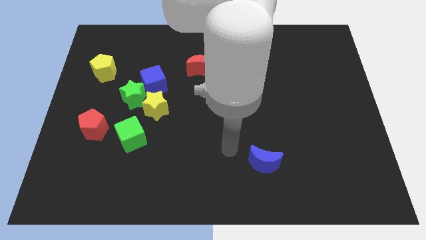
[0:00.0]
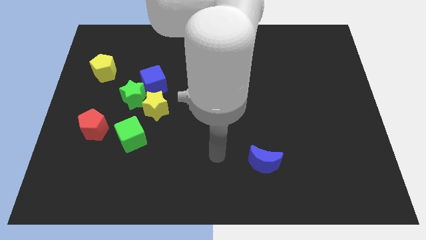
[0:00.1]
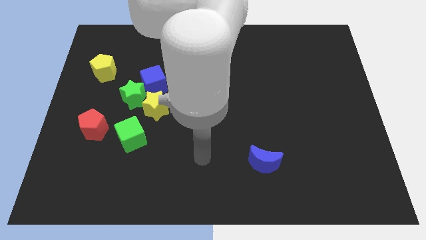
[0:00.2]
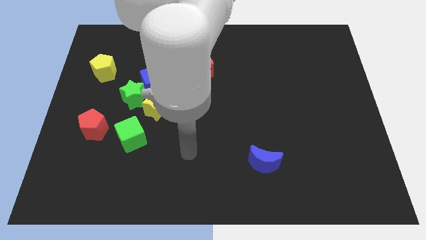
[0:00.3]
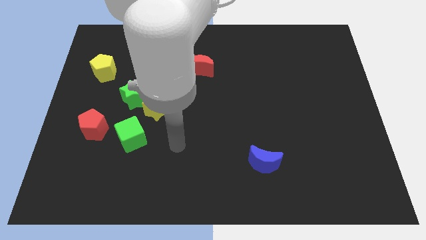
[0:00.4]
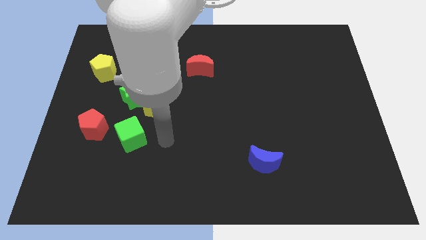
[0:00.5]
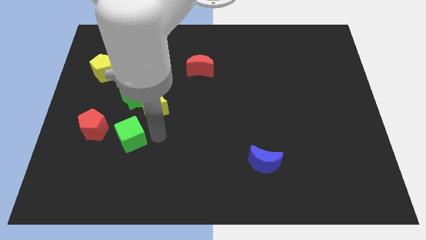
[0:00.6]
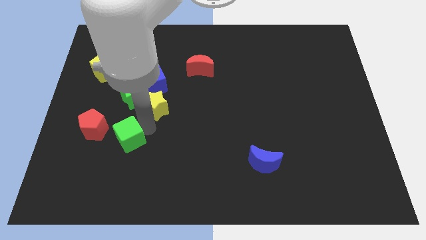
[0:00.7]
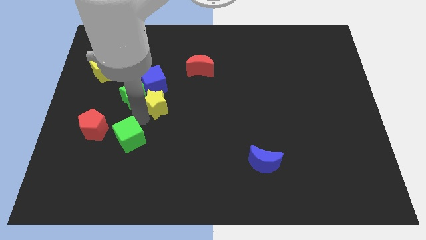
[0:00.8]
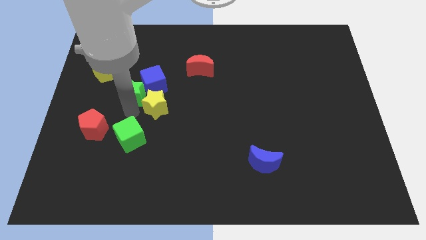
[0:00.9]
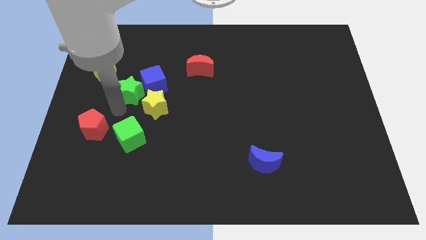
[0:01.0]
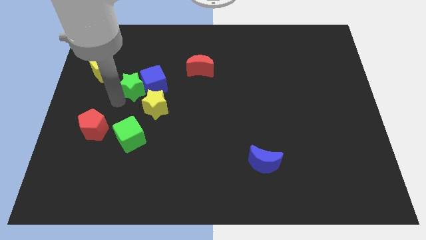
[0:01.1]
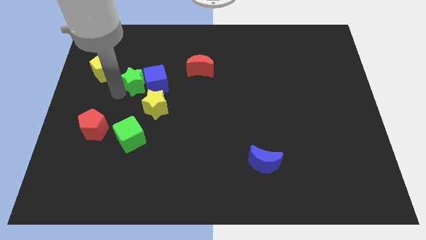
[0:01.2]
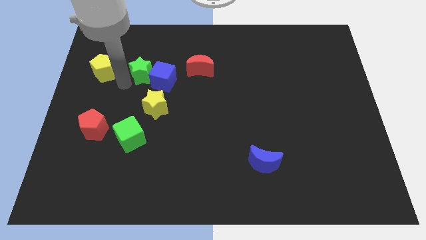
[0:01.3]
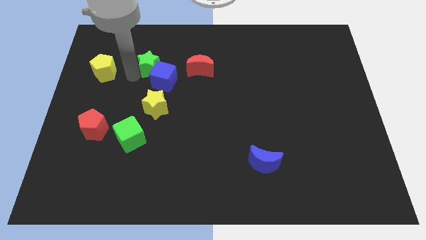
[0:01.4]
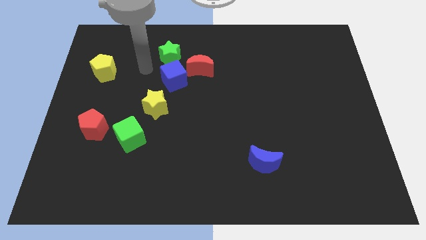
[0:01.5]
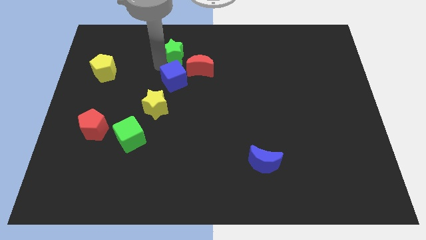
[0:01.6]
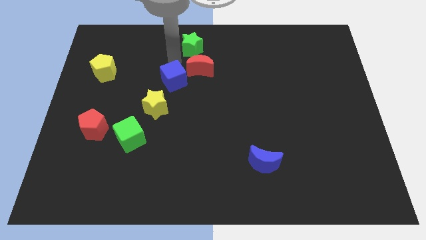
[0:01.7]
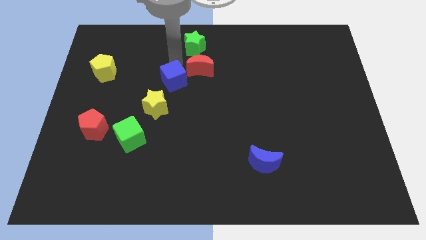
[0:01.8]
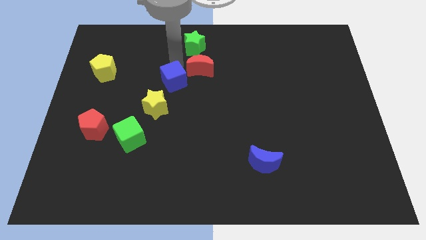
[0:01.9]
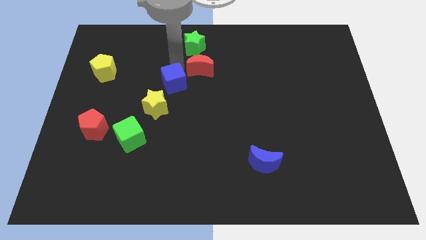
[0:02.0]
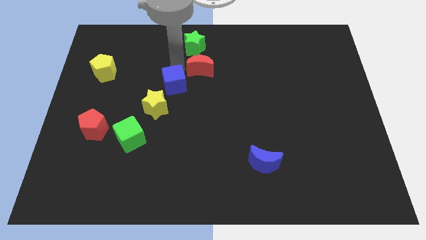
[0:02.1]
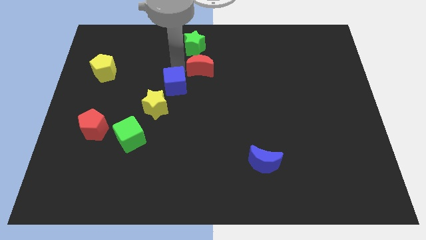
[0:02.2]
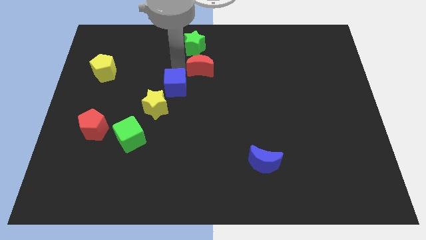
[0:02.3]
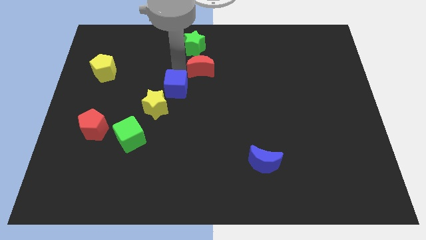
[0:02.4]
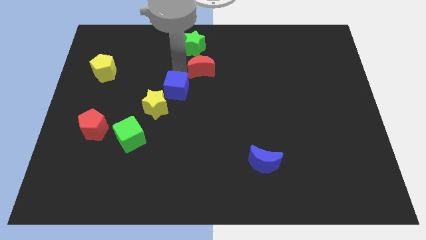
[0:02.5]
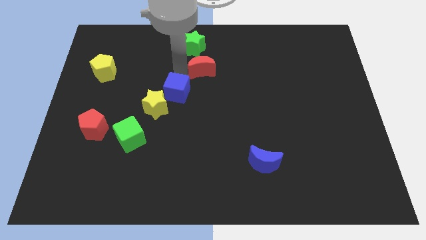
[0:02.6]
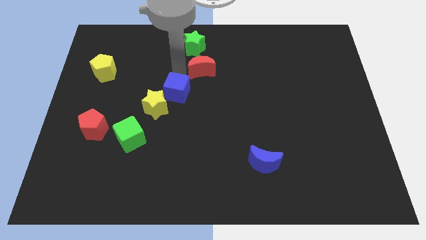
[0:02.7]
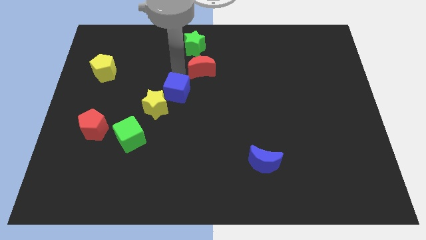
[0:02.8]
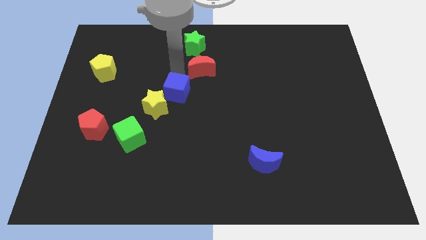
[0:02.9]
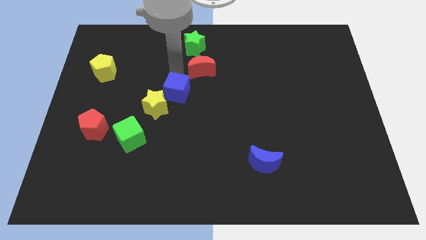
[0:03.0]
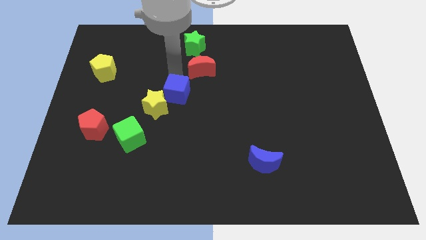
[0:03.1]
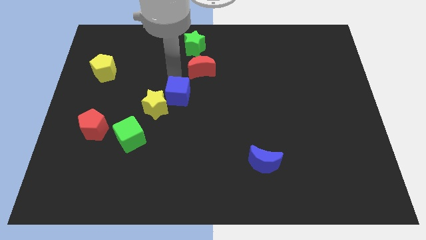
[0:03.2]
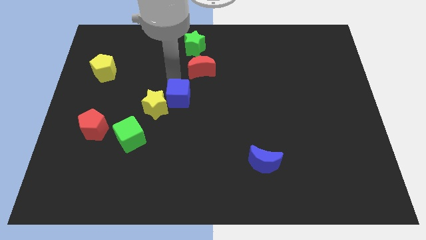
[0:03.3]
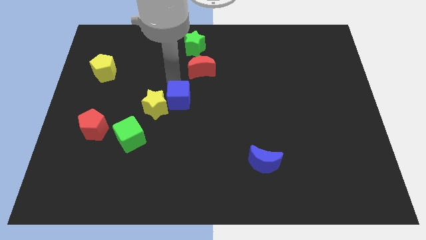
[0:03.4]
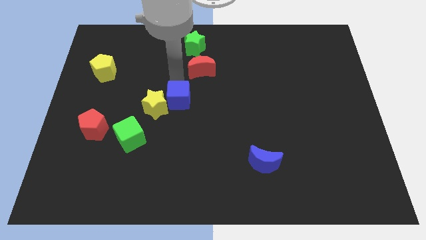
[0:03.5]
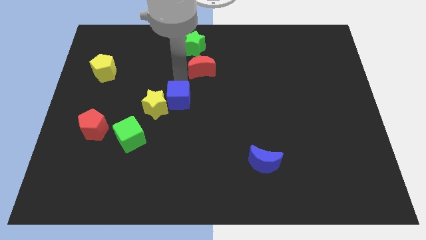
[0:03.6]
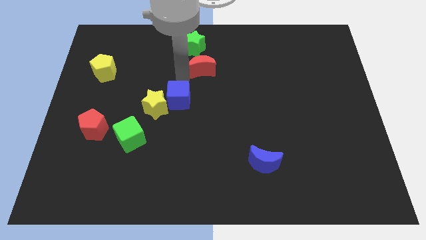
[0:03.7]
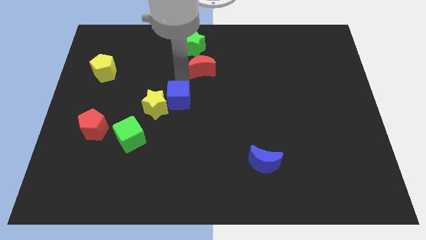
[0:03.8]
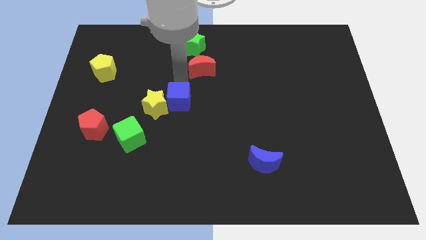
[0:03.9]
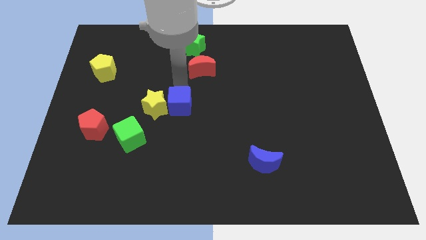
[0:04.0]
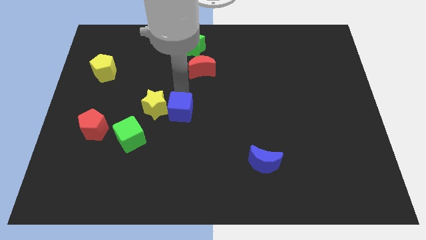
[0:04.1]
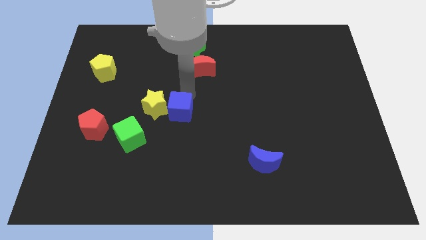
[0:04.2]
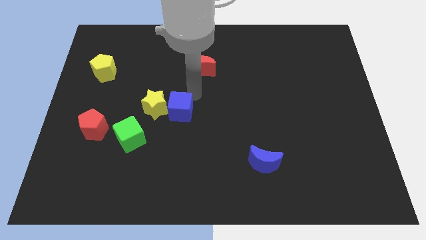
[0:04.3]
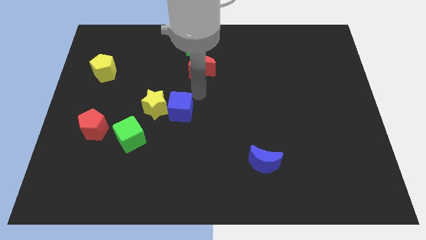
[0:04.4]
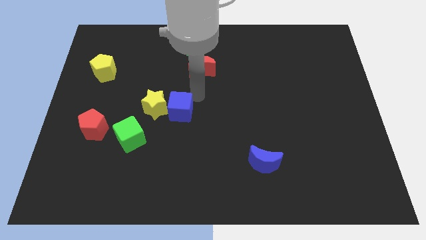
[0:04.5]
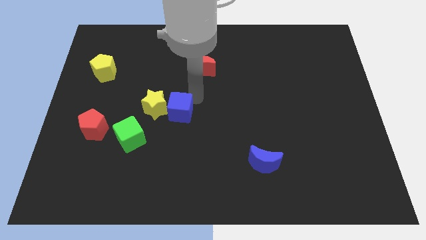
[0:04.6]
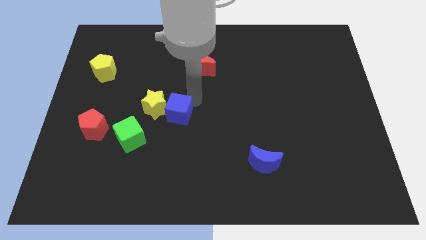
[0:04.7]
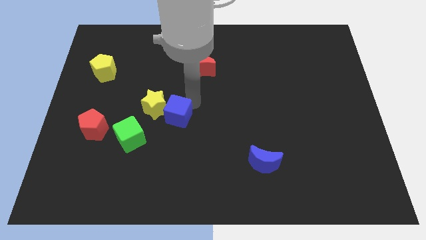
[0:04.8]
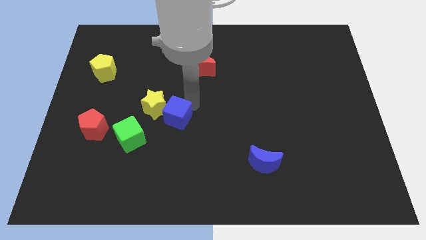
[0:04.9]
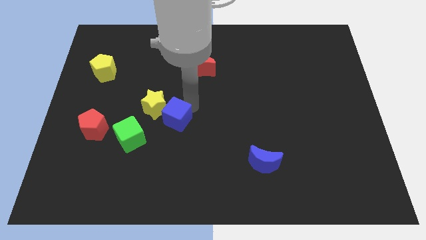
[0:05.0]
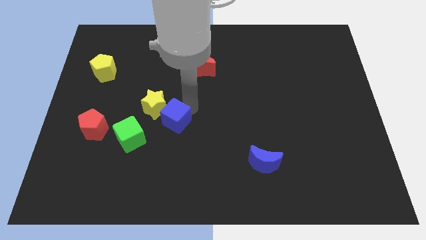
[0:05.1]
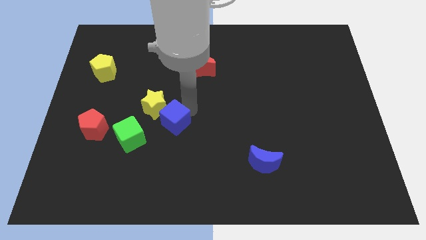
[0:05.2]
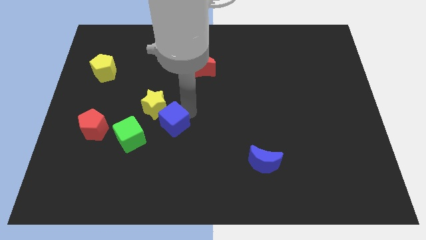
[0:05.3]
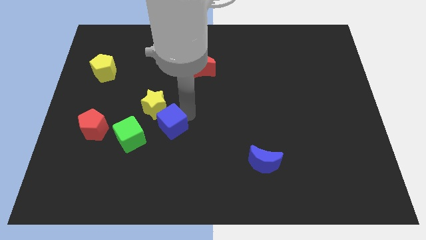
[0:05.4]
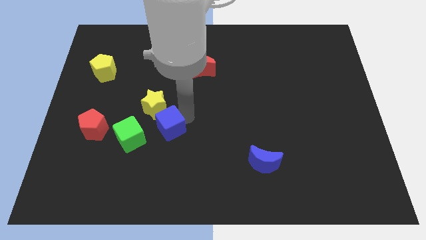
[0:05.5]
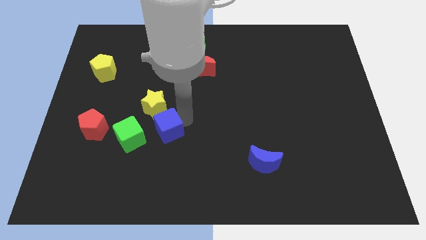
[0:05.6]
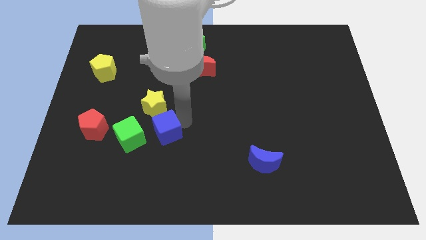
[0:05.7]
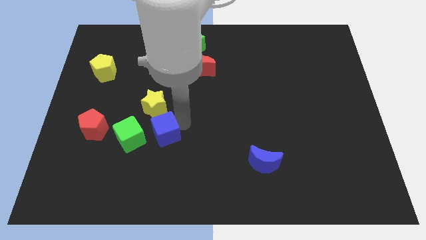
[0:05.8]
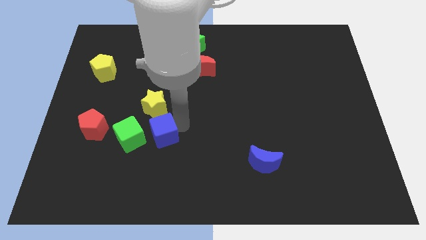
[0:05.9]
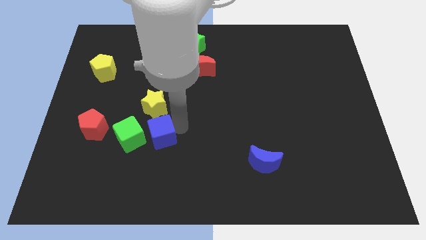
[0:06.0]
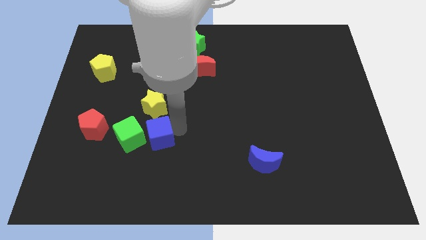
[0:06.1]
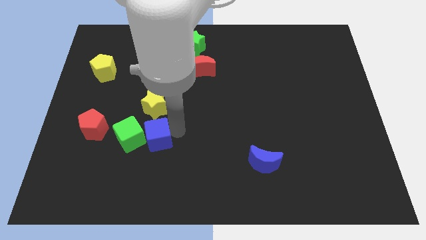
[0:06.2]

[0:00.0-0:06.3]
push the blue cube close to the green cube

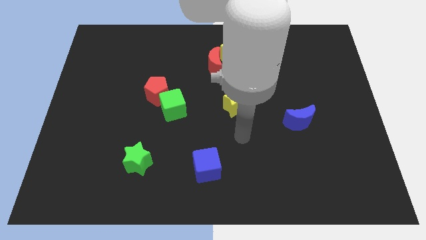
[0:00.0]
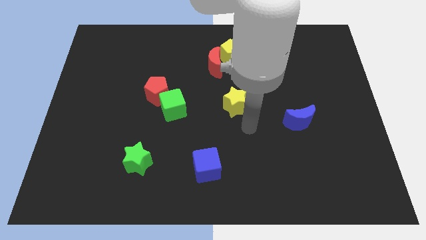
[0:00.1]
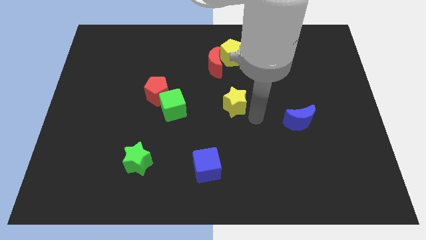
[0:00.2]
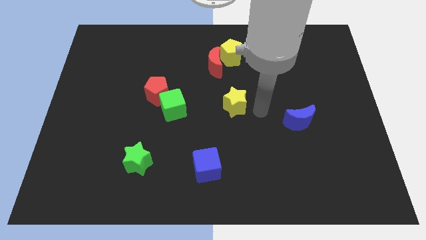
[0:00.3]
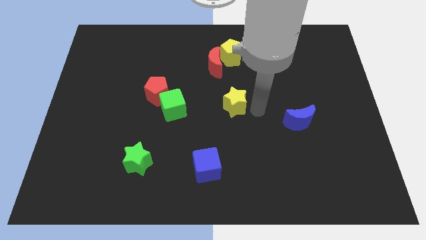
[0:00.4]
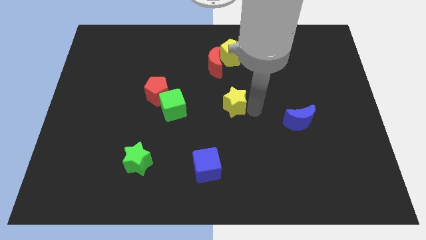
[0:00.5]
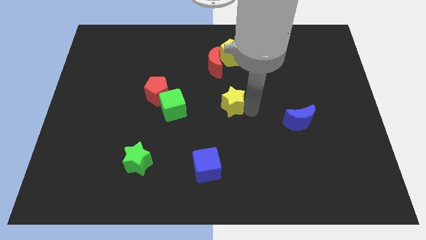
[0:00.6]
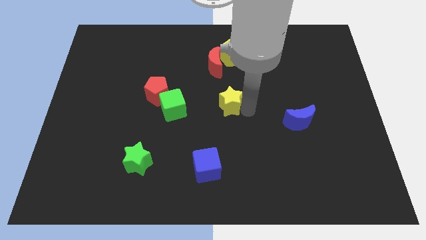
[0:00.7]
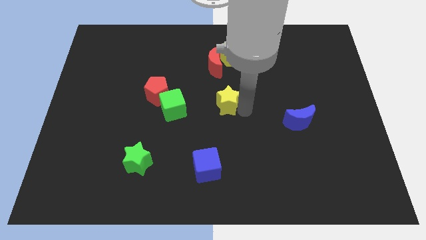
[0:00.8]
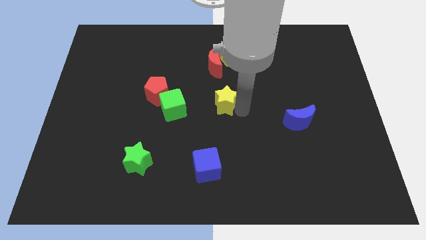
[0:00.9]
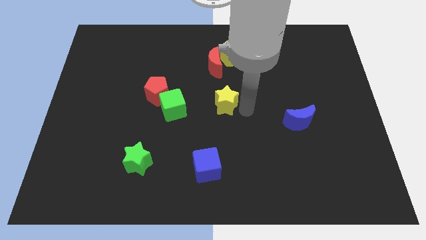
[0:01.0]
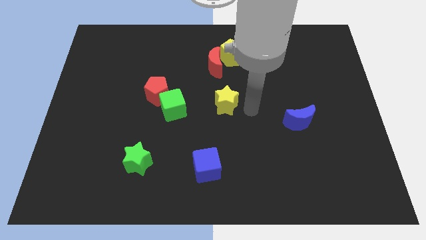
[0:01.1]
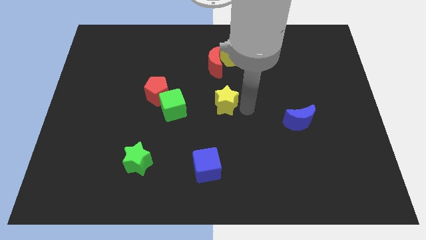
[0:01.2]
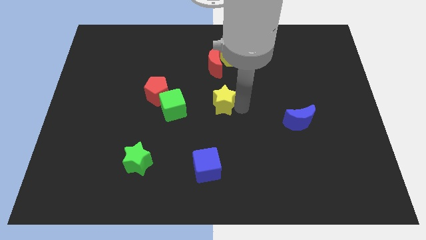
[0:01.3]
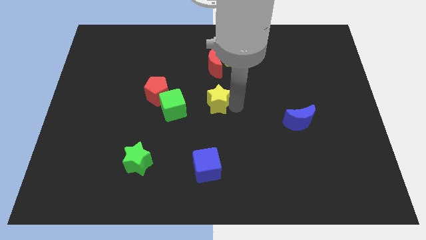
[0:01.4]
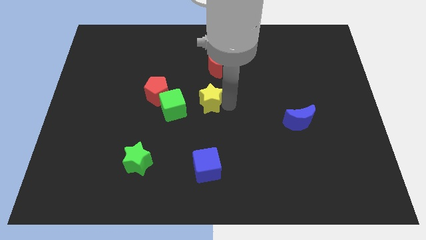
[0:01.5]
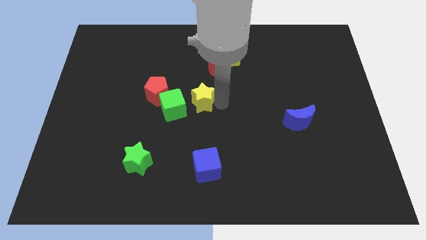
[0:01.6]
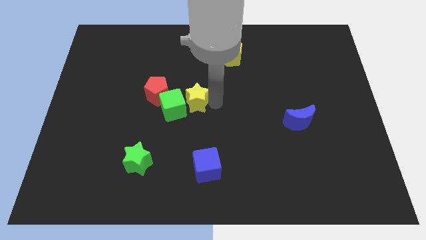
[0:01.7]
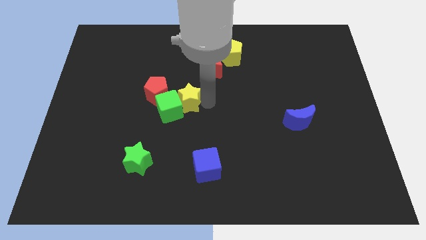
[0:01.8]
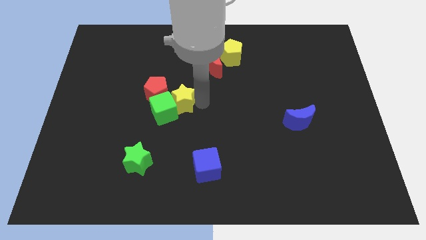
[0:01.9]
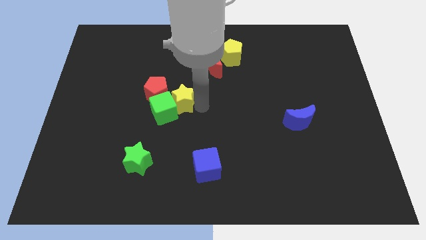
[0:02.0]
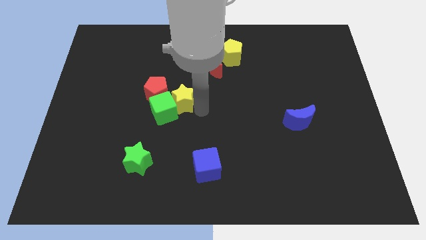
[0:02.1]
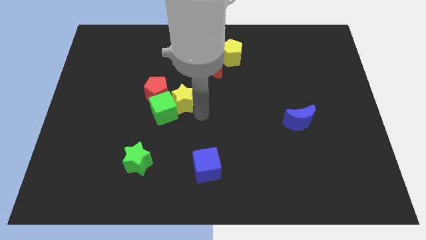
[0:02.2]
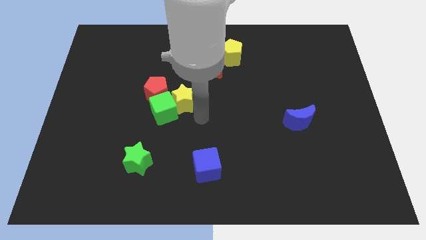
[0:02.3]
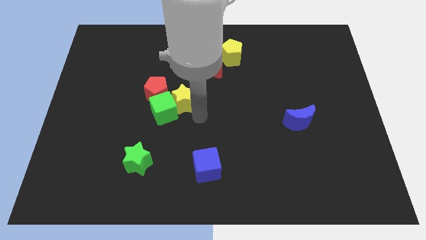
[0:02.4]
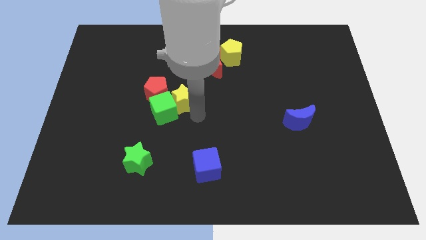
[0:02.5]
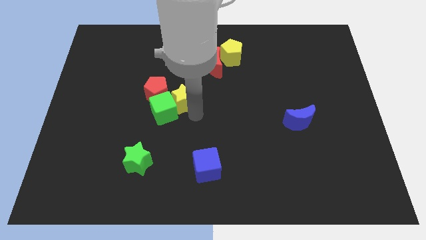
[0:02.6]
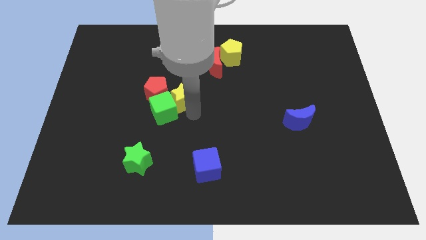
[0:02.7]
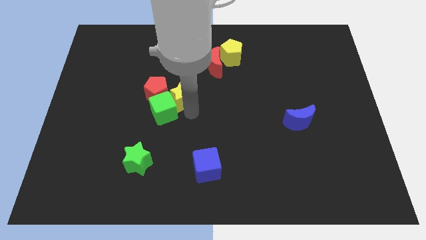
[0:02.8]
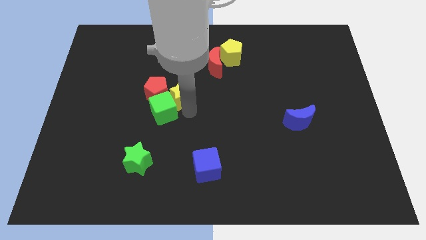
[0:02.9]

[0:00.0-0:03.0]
move the yellow star next to the red pentagon
